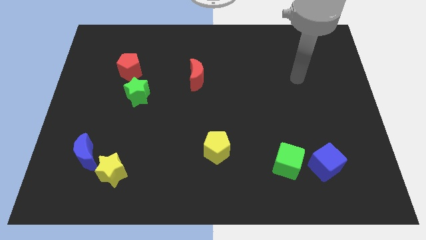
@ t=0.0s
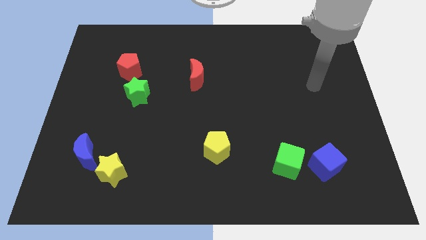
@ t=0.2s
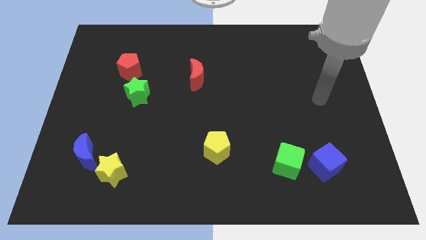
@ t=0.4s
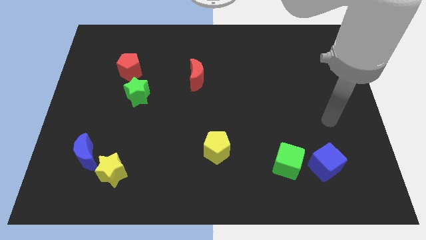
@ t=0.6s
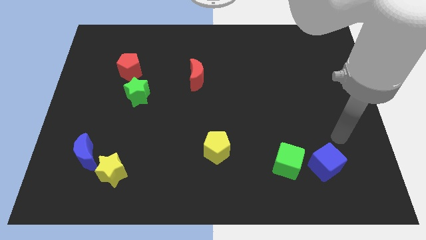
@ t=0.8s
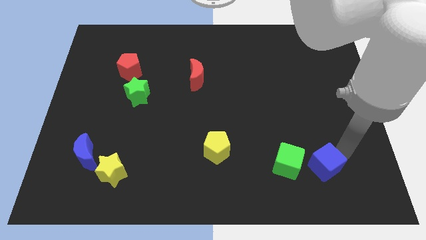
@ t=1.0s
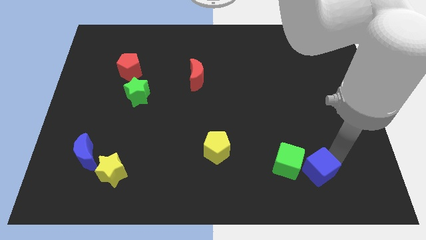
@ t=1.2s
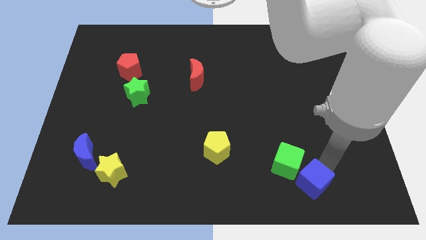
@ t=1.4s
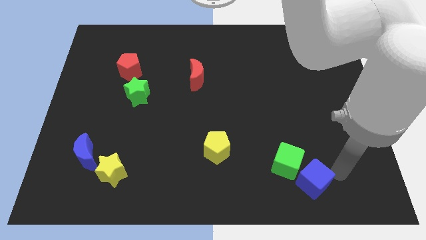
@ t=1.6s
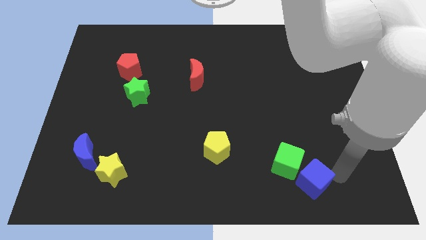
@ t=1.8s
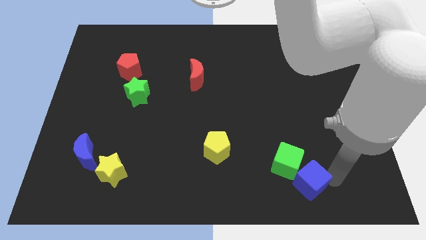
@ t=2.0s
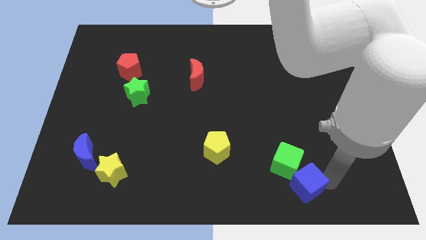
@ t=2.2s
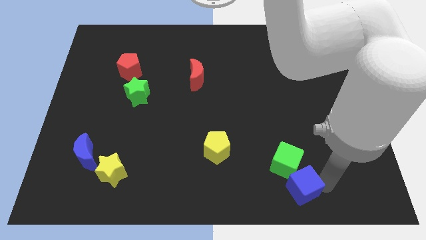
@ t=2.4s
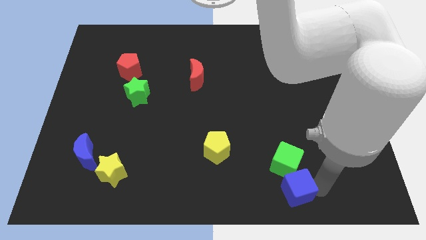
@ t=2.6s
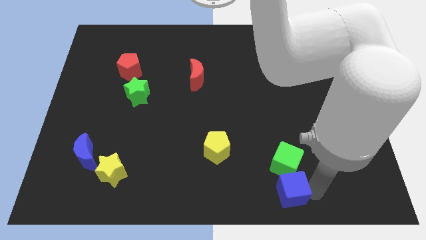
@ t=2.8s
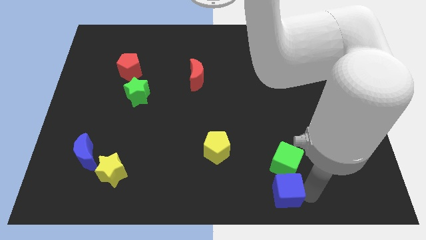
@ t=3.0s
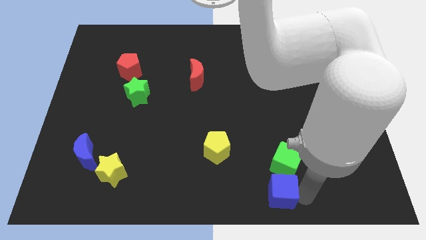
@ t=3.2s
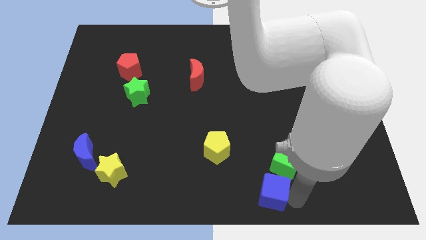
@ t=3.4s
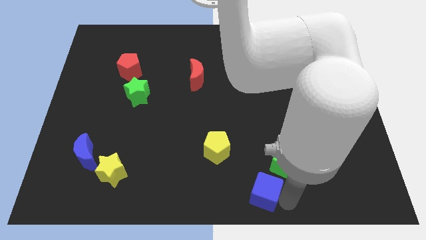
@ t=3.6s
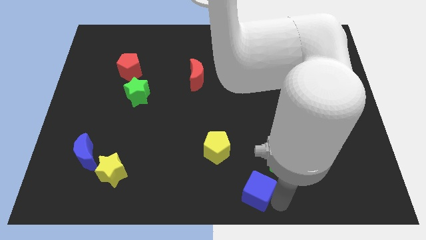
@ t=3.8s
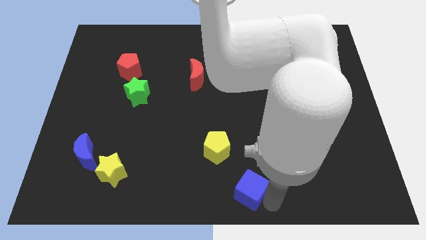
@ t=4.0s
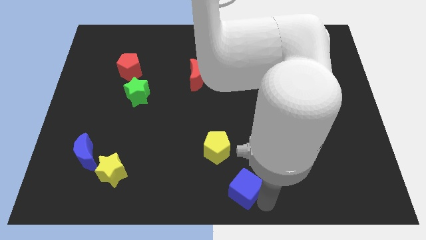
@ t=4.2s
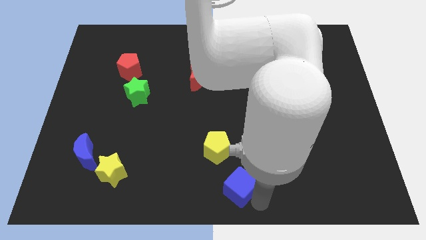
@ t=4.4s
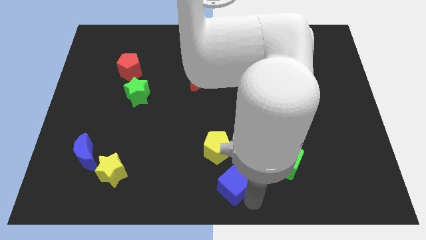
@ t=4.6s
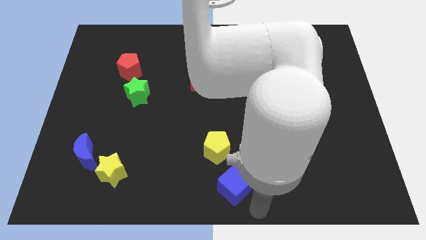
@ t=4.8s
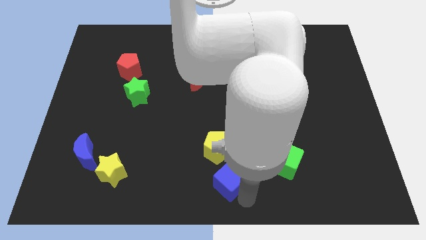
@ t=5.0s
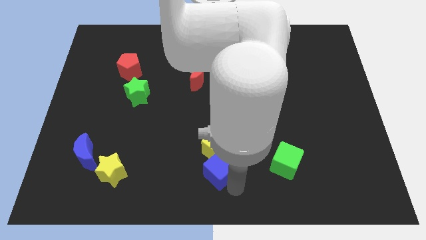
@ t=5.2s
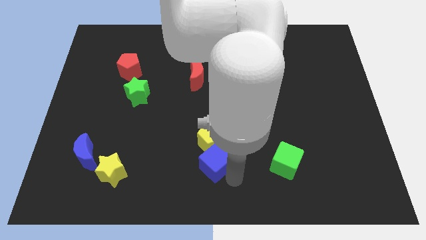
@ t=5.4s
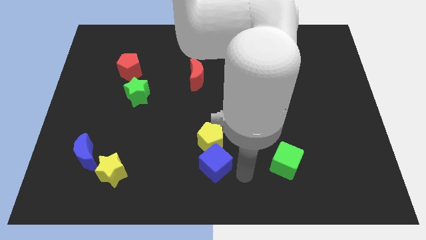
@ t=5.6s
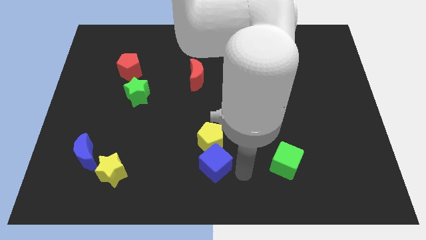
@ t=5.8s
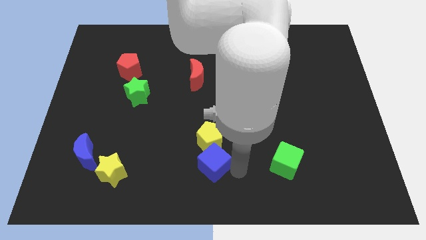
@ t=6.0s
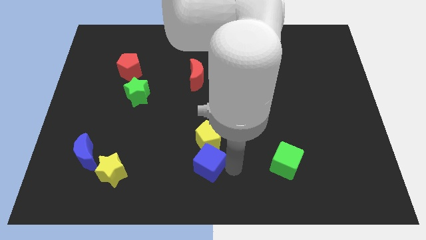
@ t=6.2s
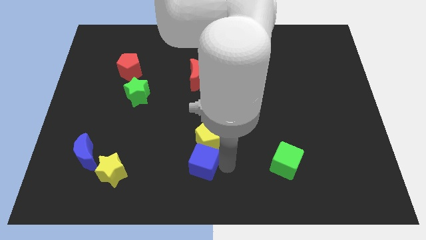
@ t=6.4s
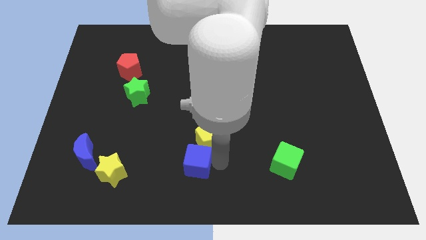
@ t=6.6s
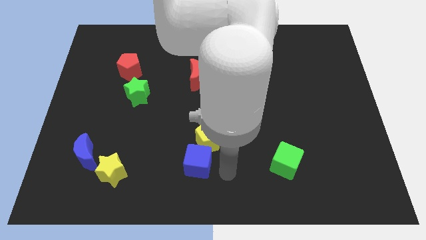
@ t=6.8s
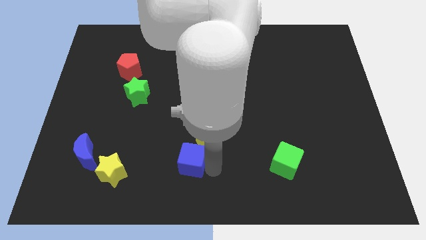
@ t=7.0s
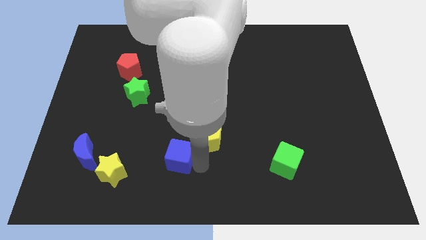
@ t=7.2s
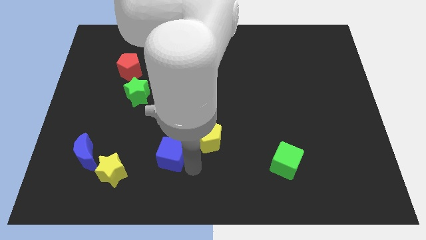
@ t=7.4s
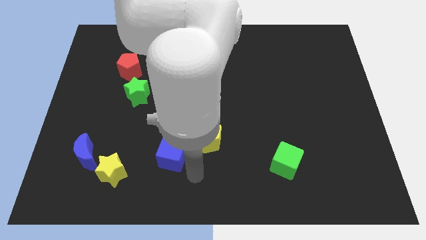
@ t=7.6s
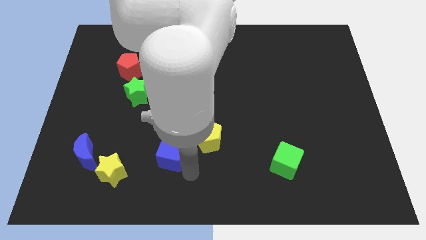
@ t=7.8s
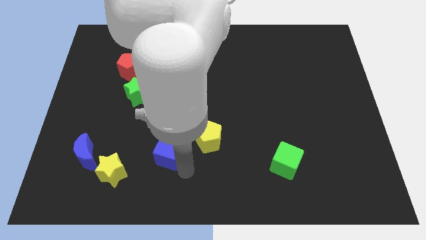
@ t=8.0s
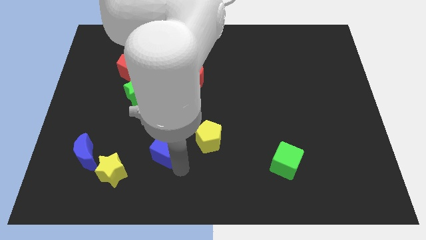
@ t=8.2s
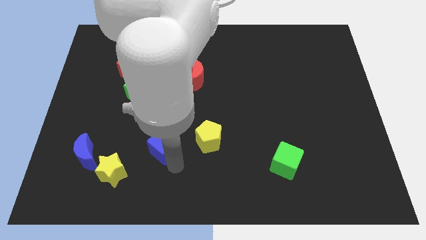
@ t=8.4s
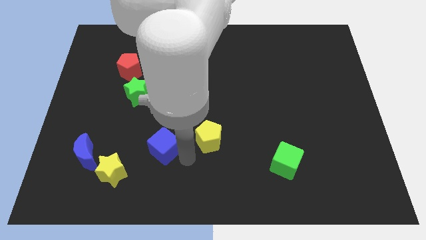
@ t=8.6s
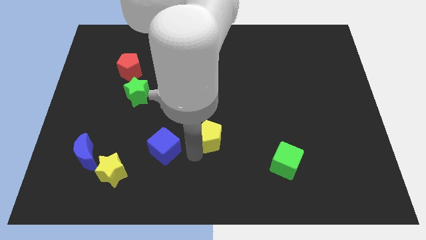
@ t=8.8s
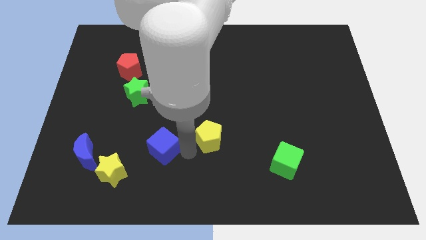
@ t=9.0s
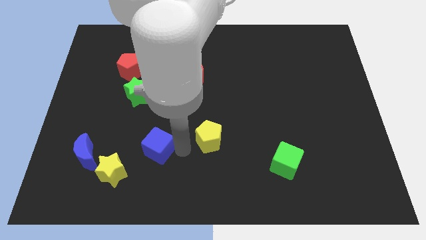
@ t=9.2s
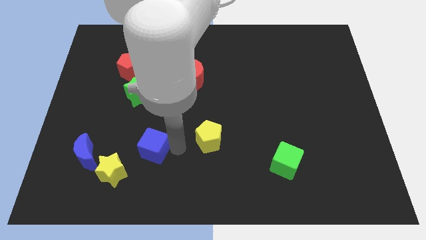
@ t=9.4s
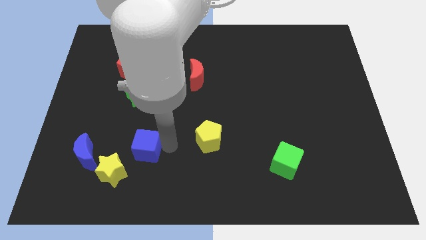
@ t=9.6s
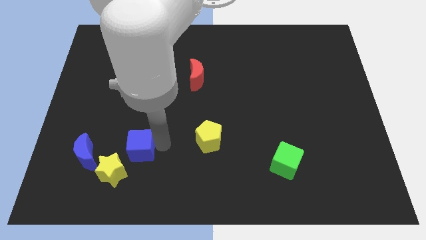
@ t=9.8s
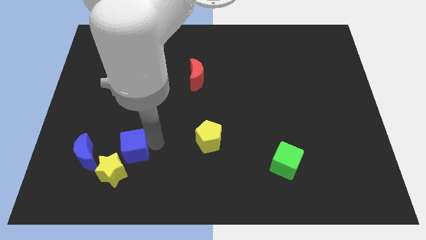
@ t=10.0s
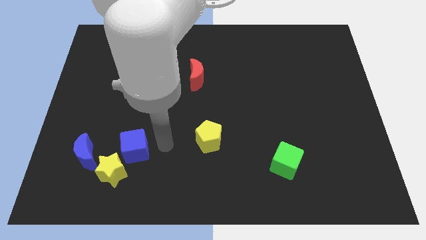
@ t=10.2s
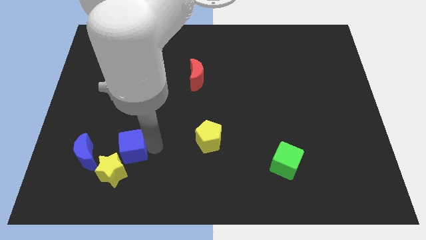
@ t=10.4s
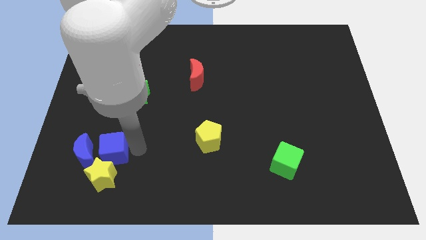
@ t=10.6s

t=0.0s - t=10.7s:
push the blue cube to the blue moon

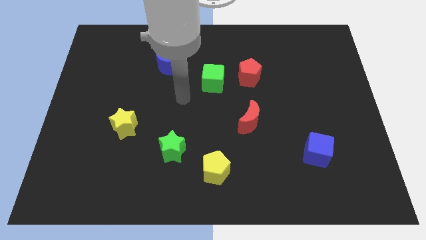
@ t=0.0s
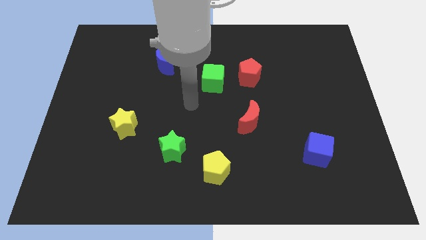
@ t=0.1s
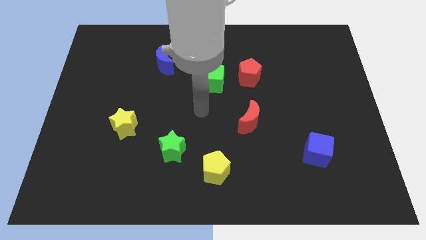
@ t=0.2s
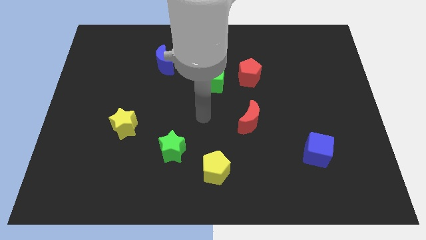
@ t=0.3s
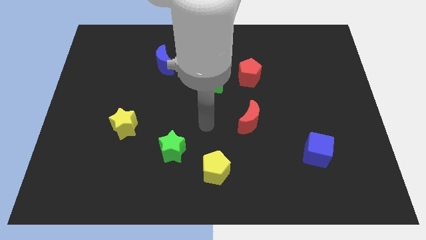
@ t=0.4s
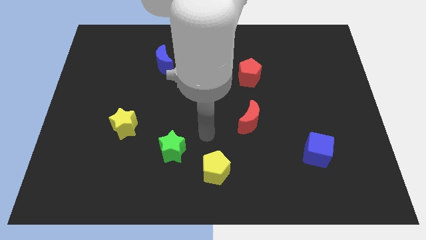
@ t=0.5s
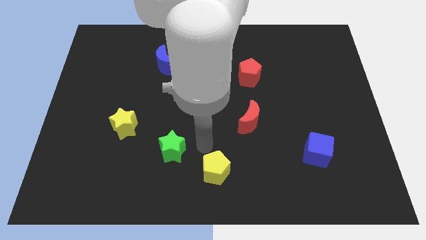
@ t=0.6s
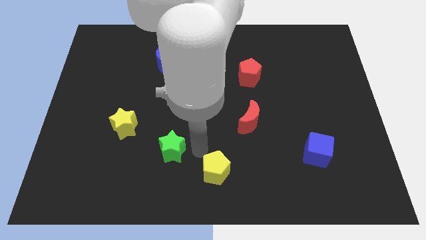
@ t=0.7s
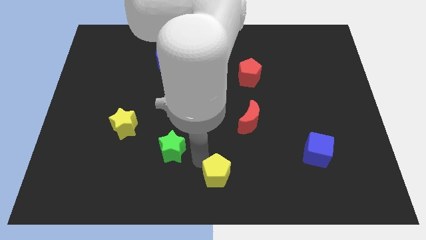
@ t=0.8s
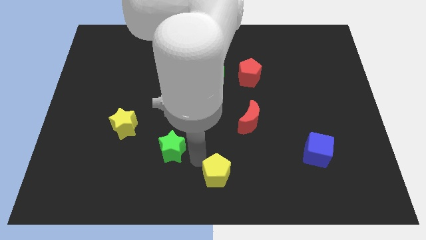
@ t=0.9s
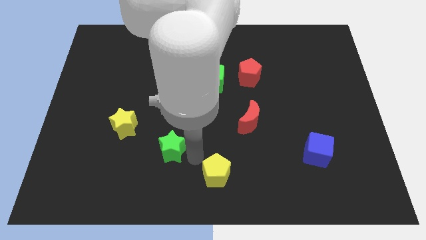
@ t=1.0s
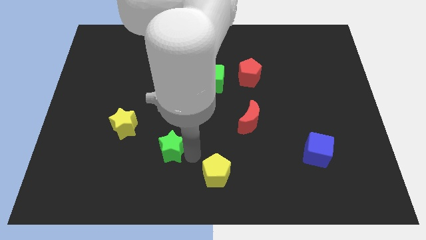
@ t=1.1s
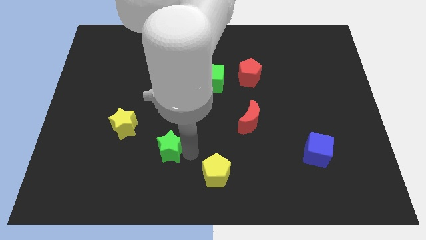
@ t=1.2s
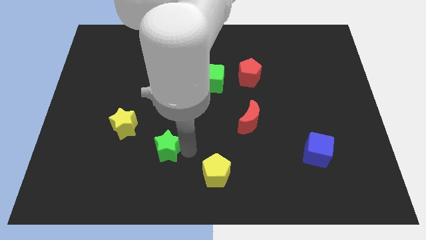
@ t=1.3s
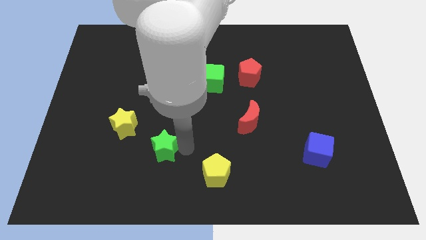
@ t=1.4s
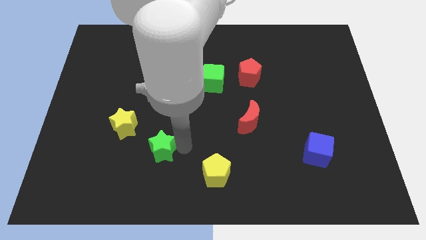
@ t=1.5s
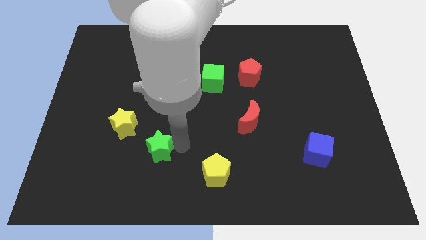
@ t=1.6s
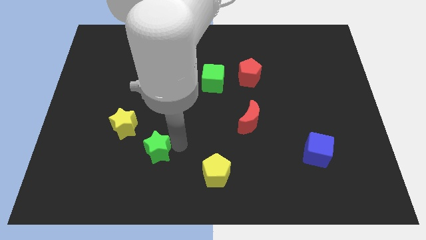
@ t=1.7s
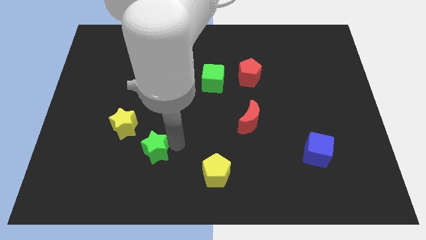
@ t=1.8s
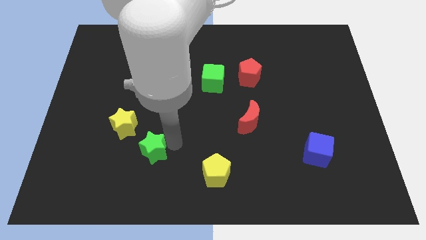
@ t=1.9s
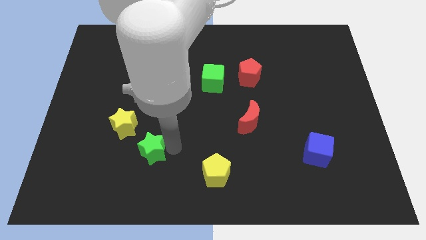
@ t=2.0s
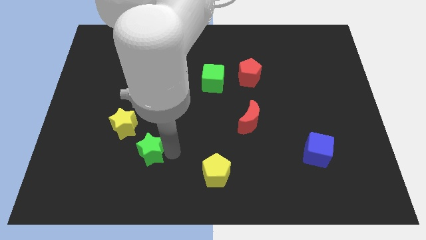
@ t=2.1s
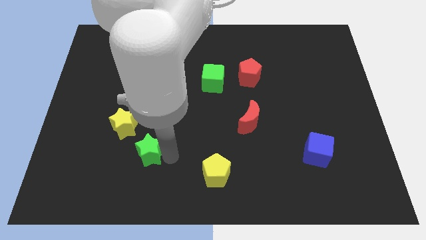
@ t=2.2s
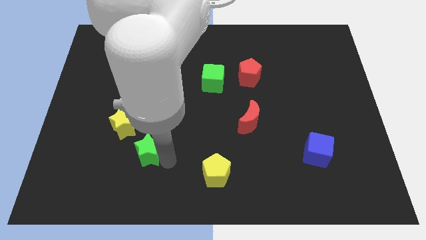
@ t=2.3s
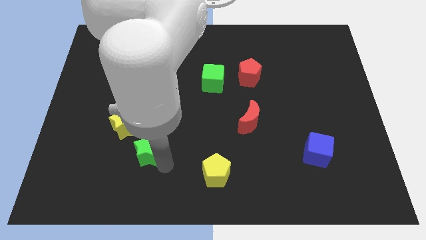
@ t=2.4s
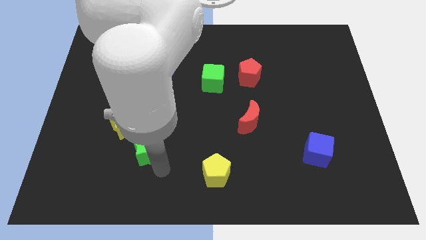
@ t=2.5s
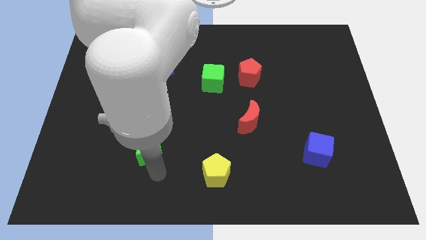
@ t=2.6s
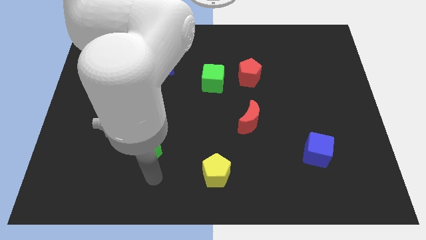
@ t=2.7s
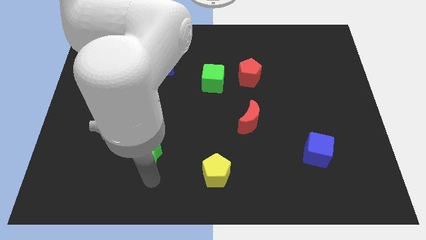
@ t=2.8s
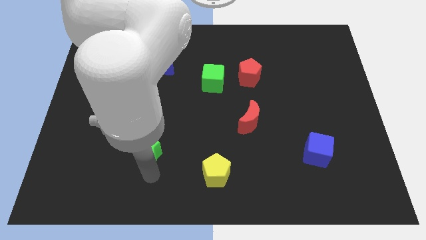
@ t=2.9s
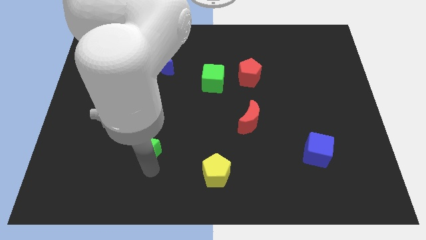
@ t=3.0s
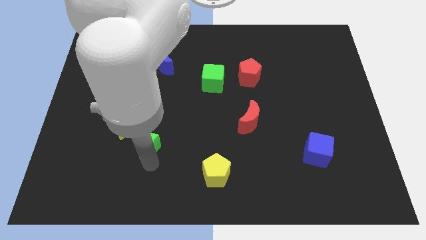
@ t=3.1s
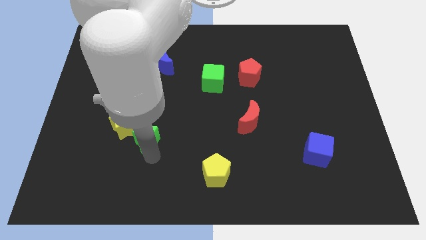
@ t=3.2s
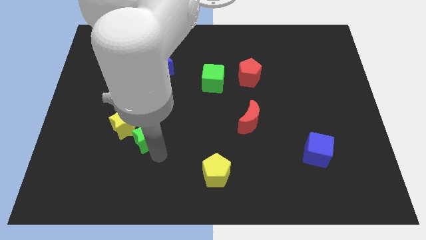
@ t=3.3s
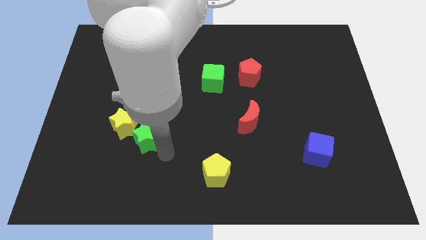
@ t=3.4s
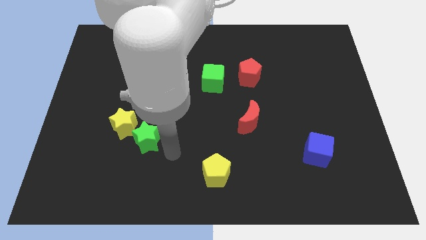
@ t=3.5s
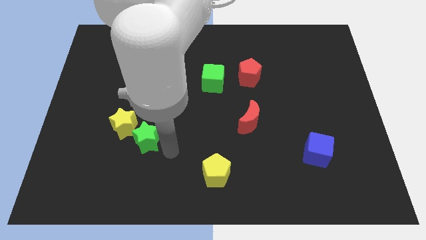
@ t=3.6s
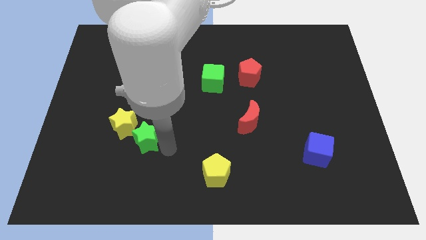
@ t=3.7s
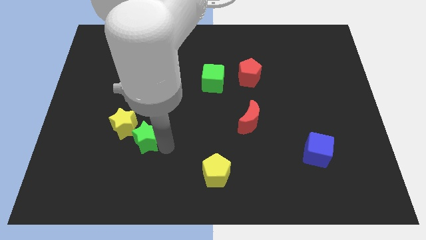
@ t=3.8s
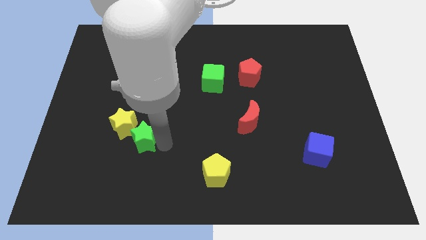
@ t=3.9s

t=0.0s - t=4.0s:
move the green star close to the yellow star
